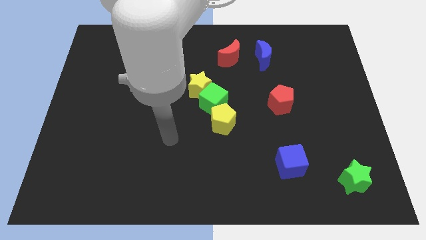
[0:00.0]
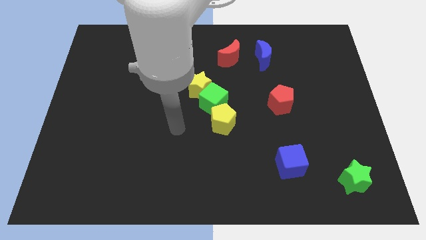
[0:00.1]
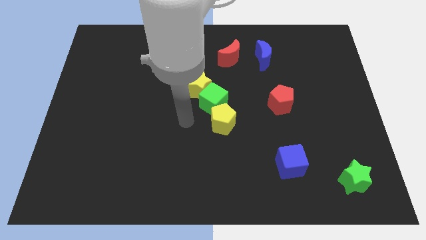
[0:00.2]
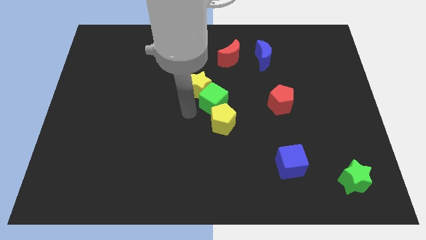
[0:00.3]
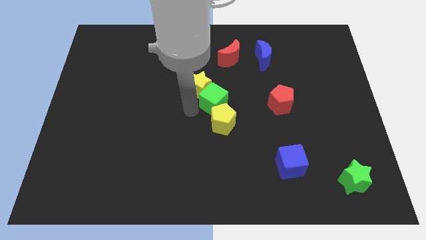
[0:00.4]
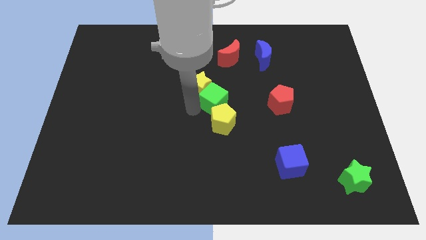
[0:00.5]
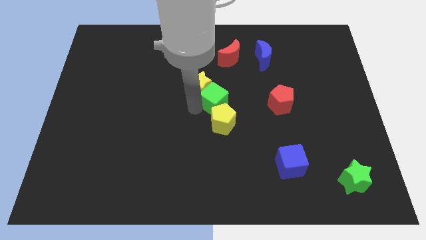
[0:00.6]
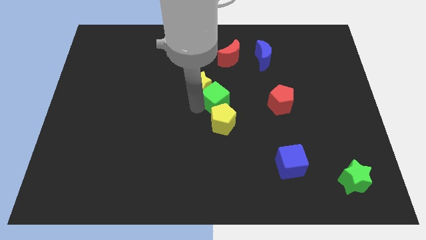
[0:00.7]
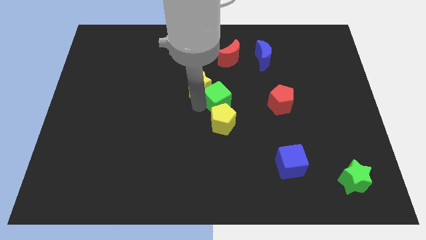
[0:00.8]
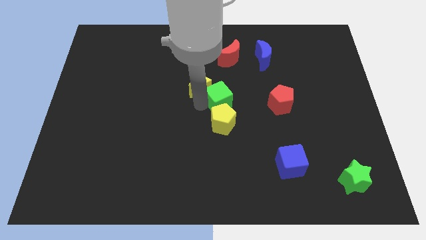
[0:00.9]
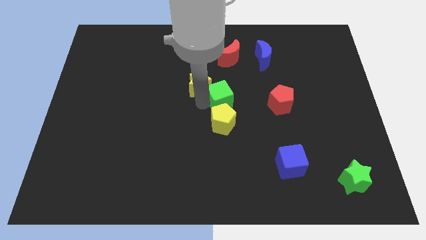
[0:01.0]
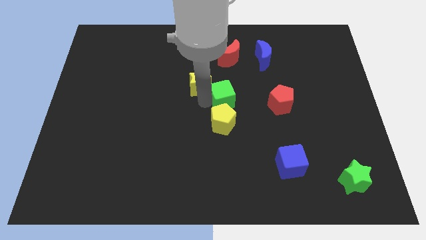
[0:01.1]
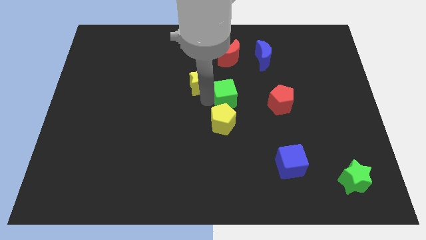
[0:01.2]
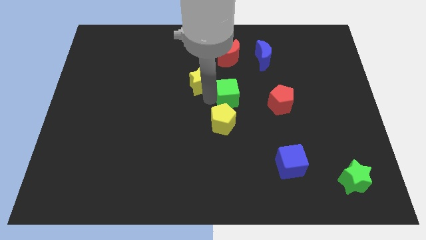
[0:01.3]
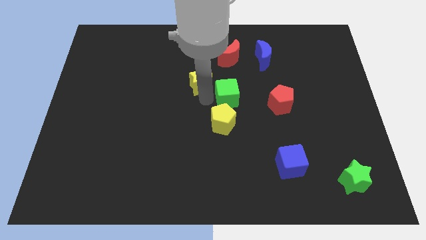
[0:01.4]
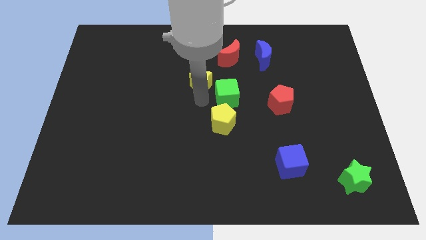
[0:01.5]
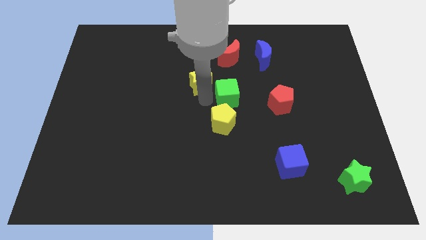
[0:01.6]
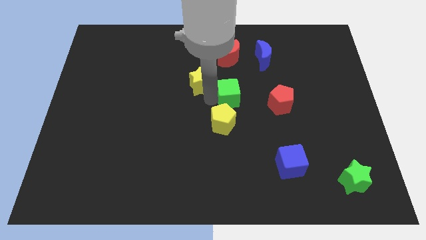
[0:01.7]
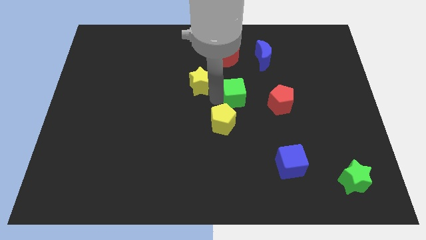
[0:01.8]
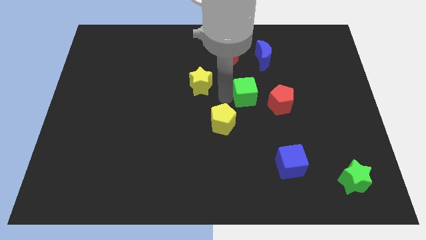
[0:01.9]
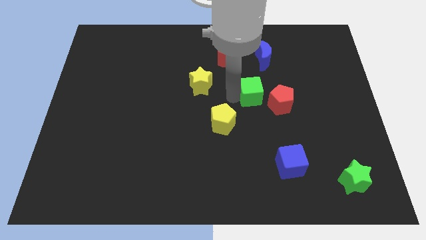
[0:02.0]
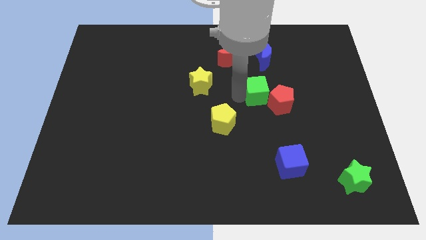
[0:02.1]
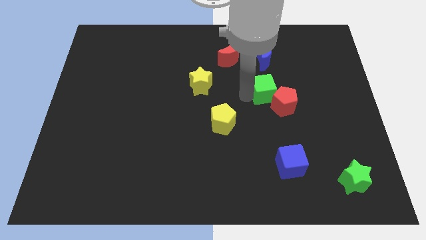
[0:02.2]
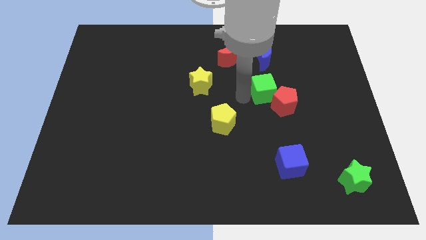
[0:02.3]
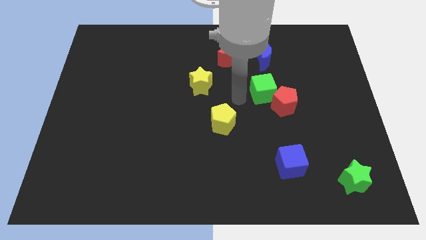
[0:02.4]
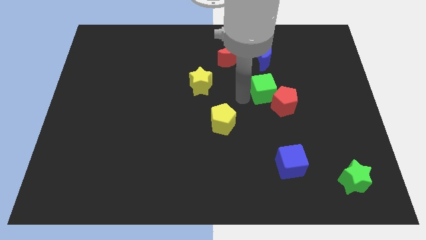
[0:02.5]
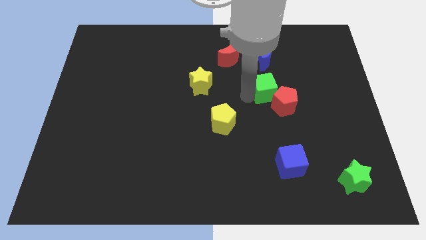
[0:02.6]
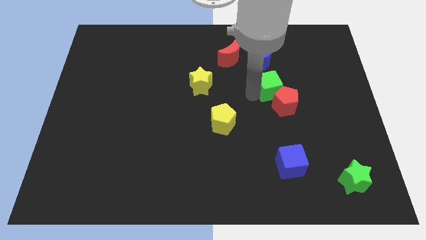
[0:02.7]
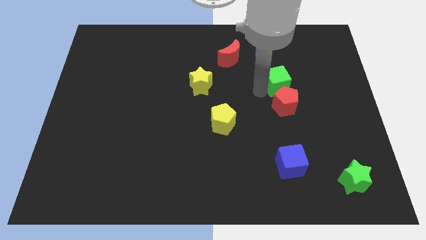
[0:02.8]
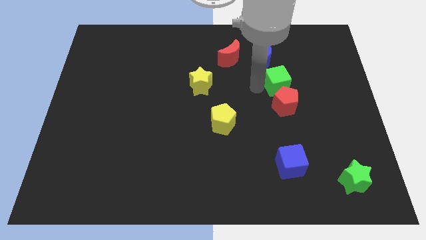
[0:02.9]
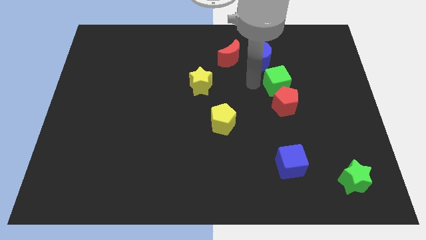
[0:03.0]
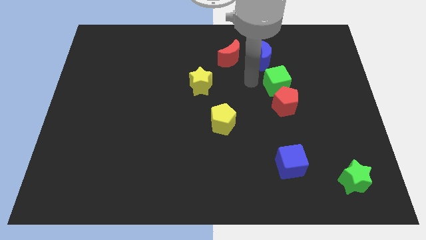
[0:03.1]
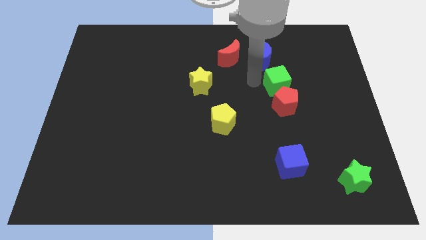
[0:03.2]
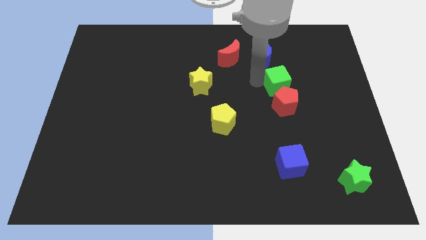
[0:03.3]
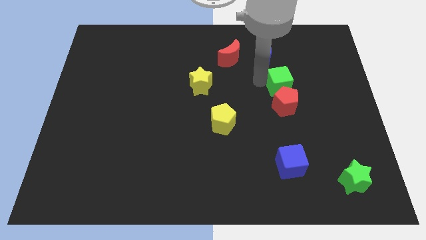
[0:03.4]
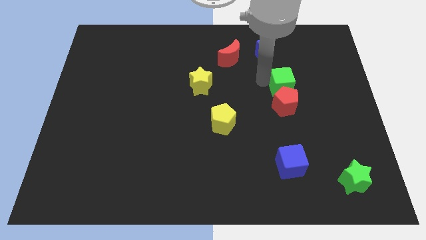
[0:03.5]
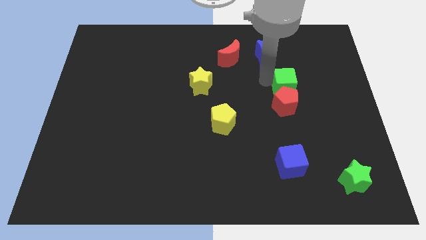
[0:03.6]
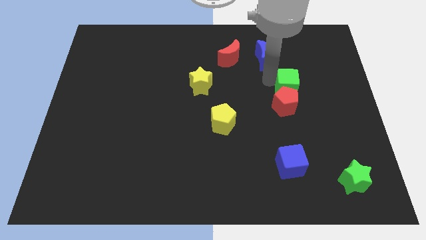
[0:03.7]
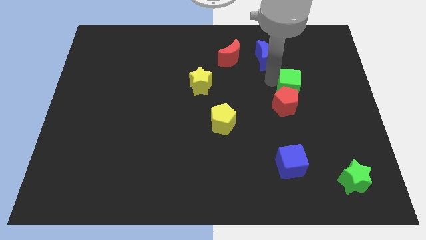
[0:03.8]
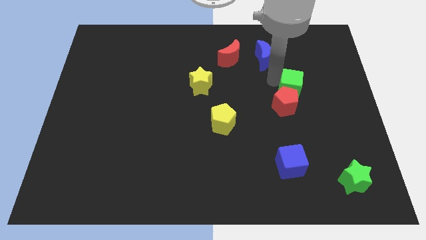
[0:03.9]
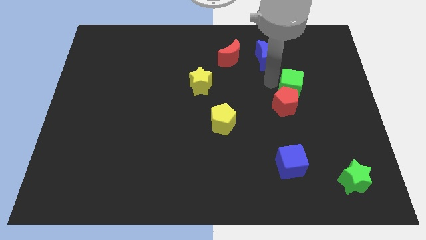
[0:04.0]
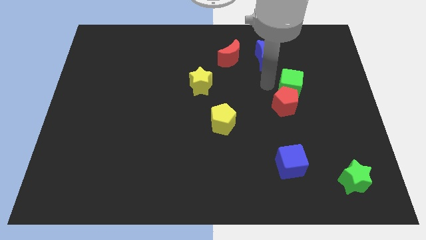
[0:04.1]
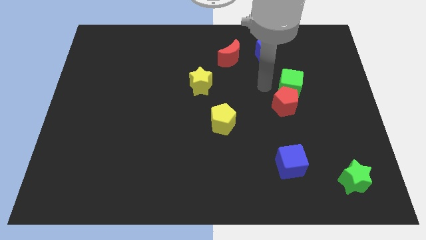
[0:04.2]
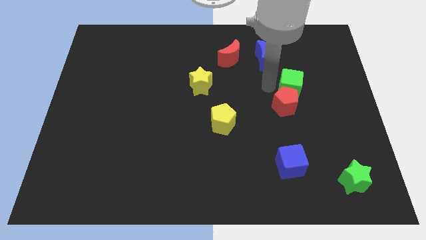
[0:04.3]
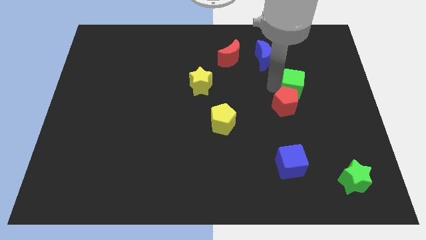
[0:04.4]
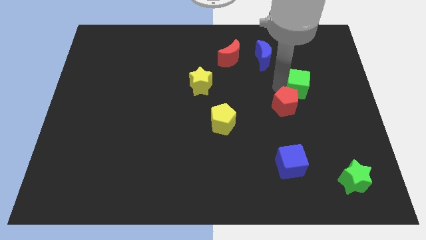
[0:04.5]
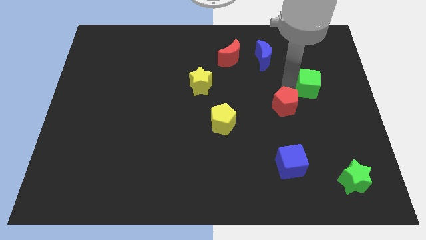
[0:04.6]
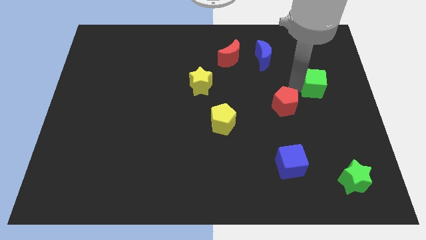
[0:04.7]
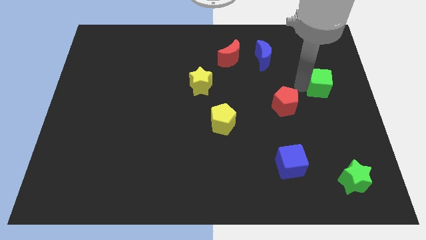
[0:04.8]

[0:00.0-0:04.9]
put the green cube to the right side

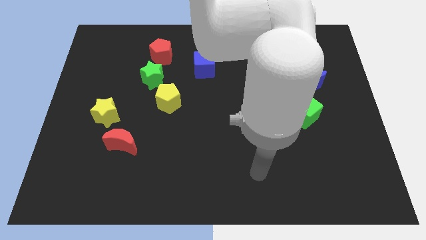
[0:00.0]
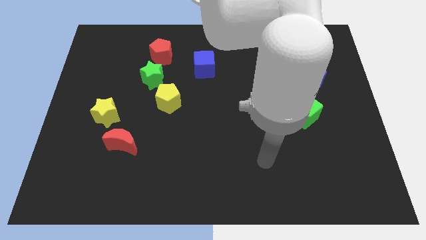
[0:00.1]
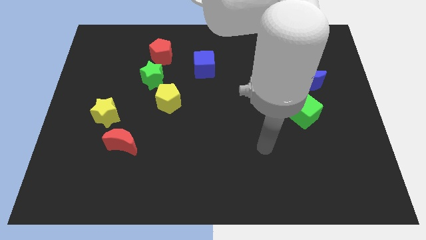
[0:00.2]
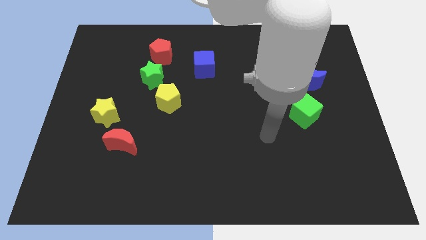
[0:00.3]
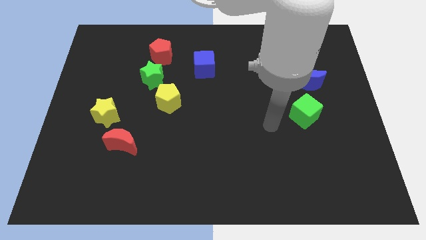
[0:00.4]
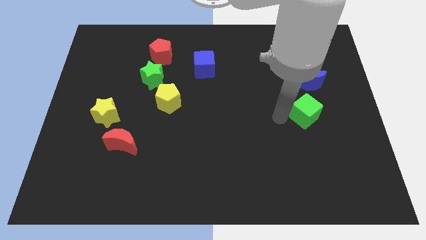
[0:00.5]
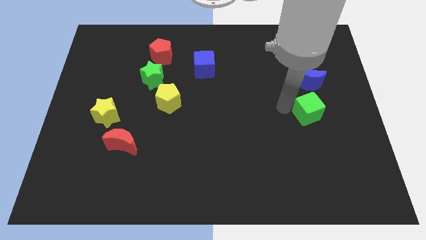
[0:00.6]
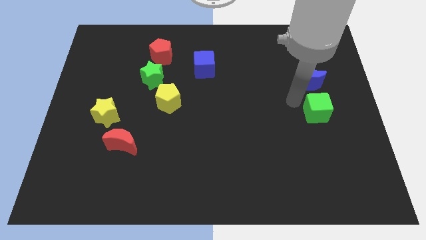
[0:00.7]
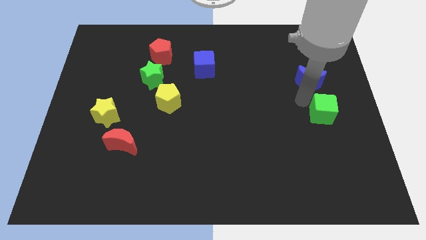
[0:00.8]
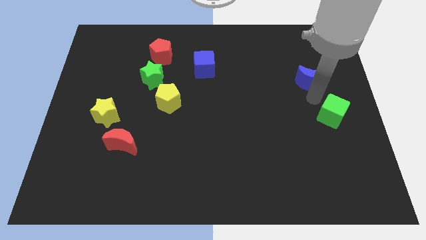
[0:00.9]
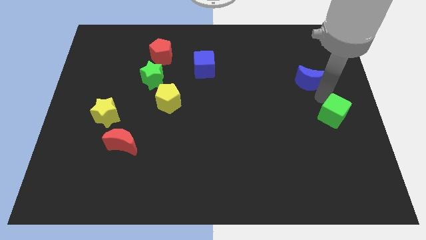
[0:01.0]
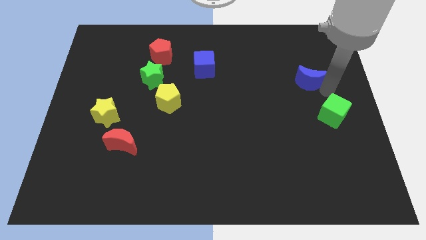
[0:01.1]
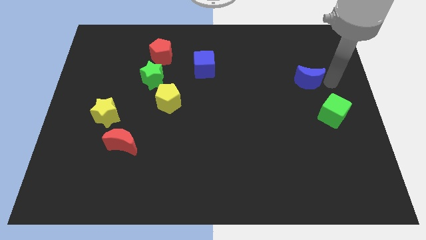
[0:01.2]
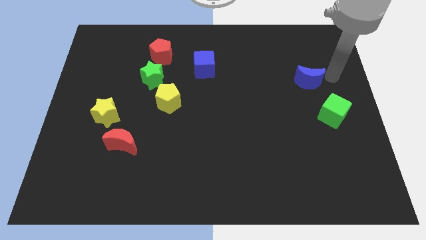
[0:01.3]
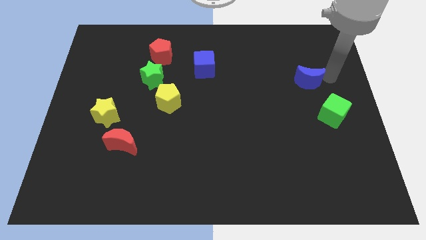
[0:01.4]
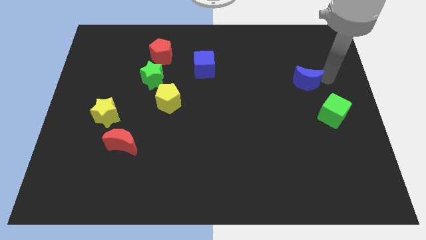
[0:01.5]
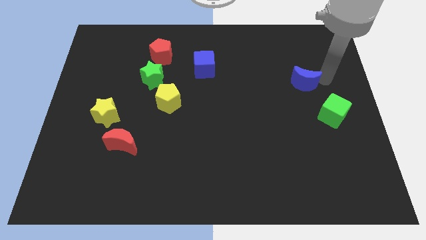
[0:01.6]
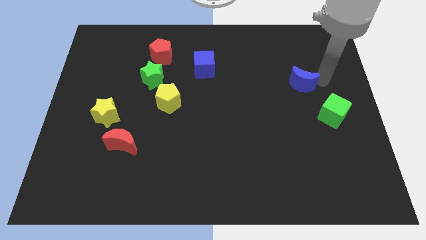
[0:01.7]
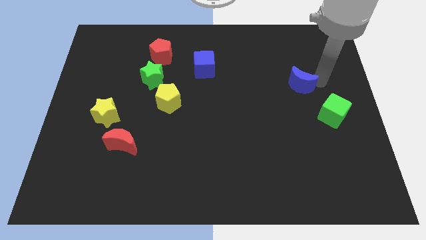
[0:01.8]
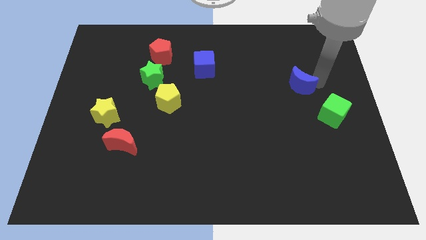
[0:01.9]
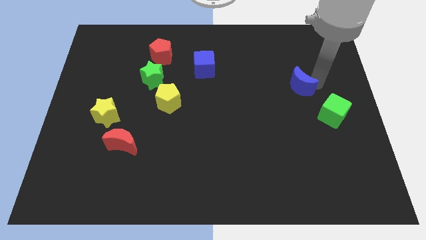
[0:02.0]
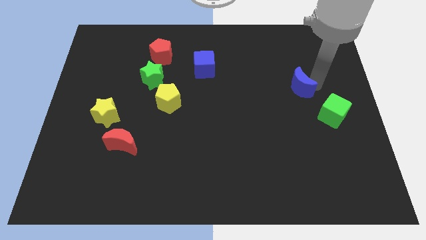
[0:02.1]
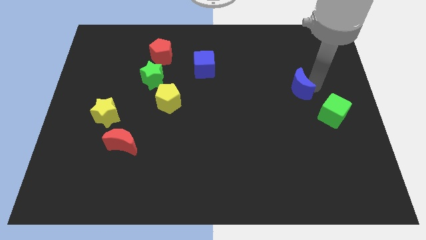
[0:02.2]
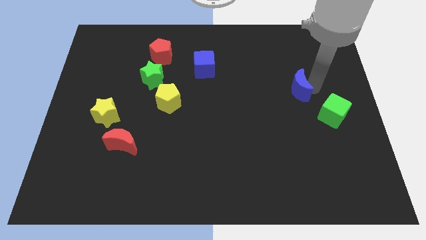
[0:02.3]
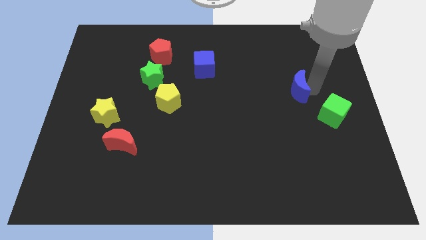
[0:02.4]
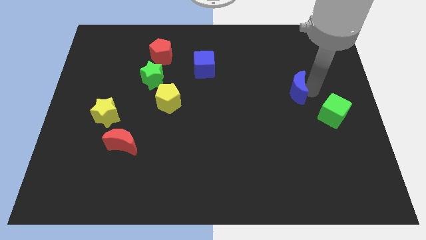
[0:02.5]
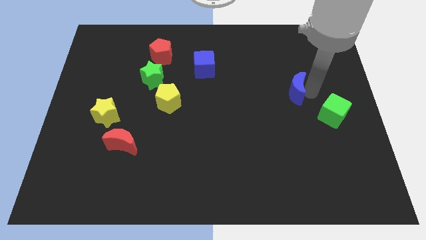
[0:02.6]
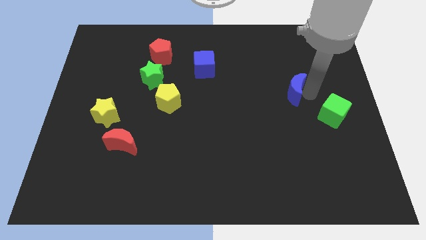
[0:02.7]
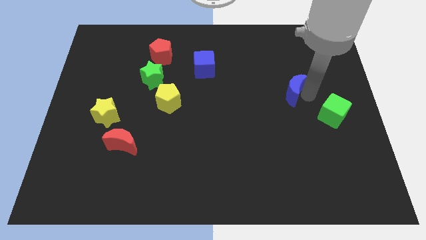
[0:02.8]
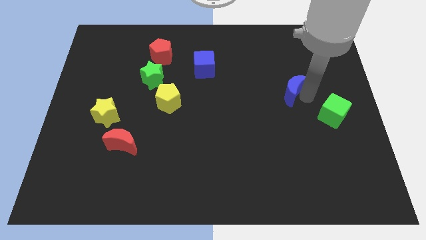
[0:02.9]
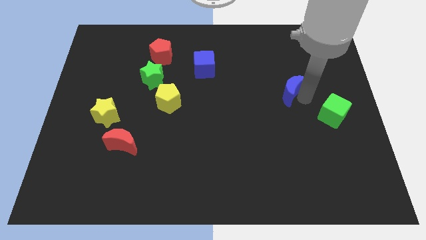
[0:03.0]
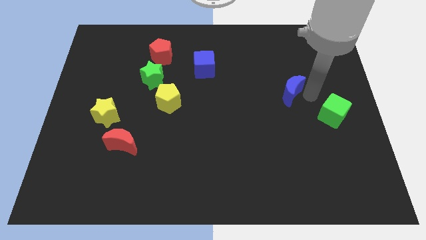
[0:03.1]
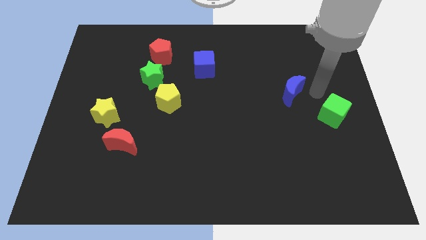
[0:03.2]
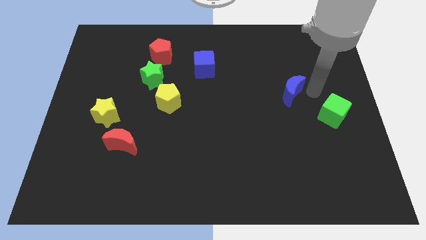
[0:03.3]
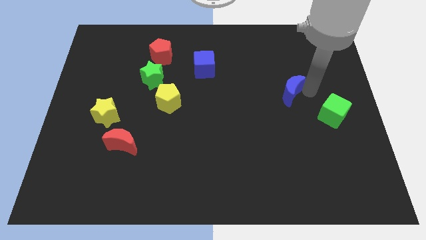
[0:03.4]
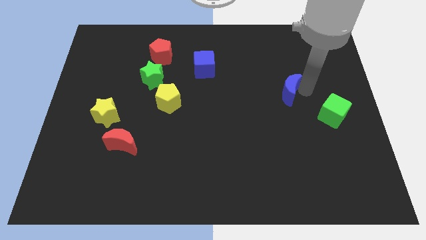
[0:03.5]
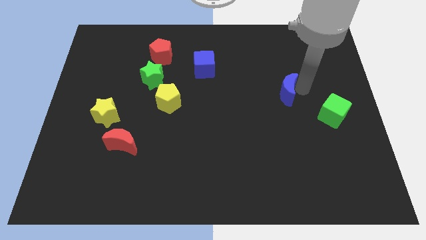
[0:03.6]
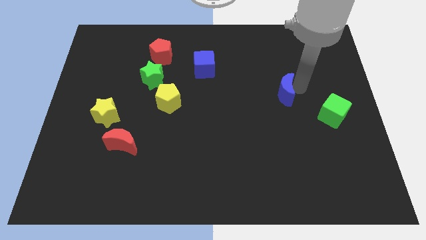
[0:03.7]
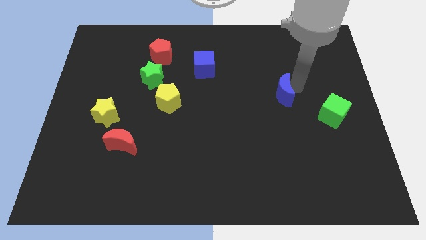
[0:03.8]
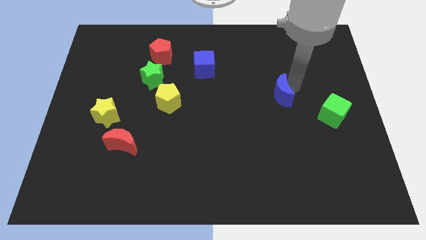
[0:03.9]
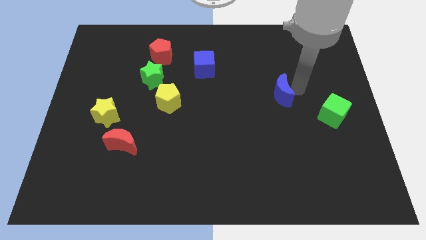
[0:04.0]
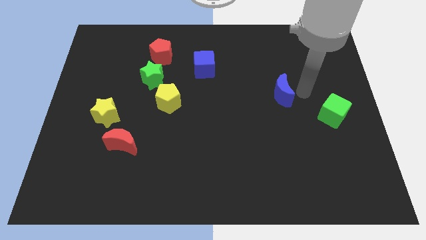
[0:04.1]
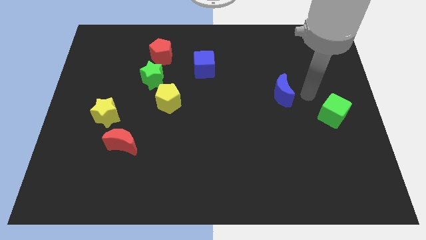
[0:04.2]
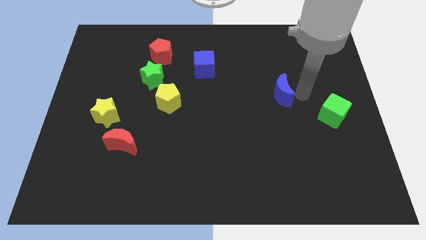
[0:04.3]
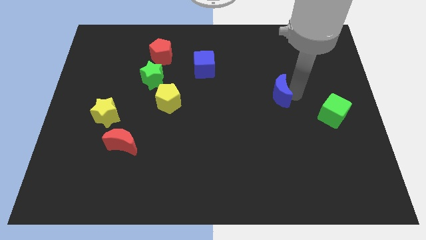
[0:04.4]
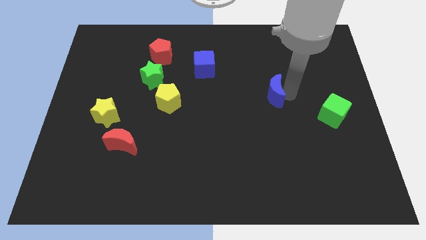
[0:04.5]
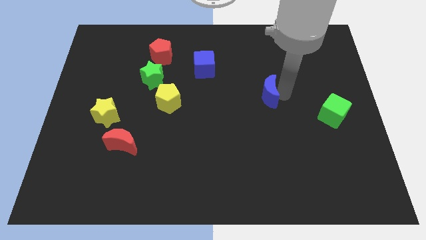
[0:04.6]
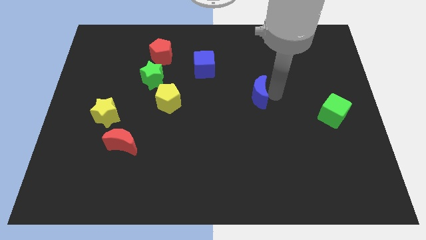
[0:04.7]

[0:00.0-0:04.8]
slide the blue moon to the middle
